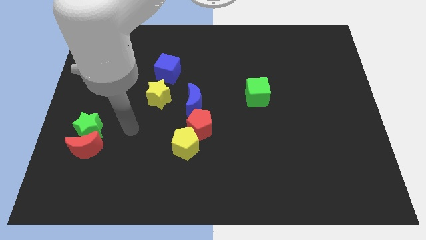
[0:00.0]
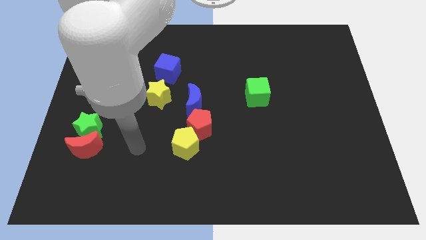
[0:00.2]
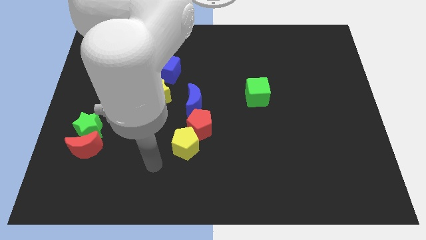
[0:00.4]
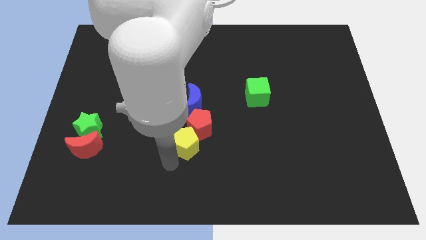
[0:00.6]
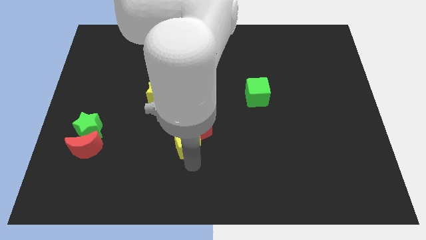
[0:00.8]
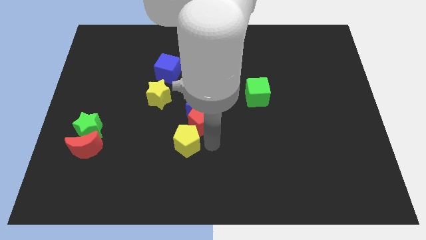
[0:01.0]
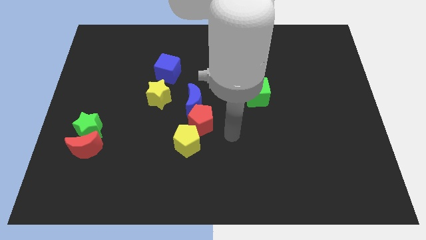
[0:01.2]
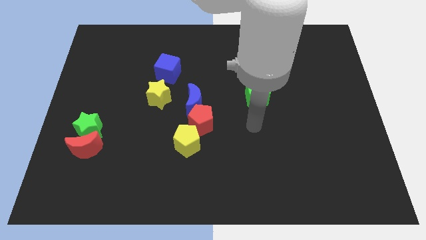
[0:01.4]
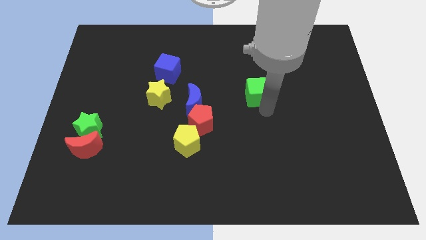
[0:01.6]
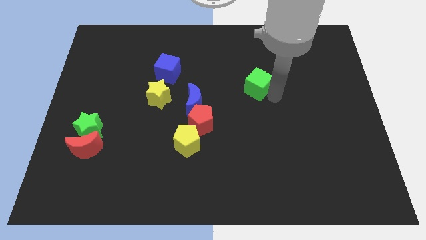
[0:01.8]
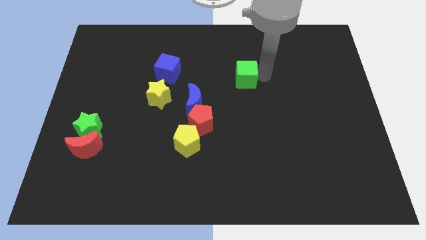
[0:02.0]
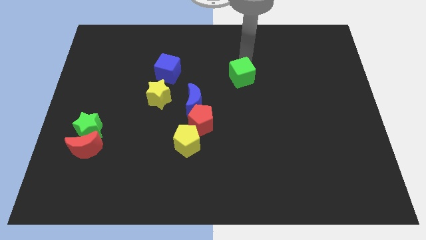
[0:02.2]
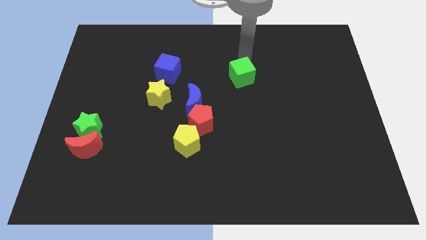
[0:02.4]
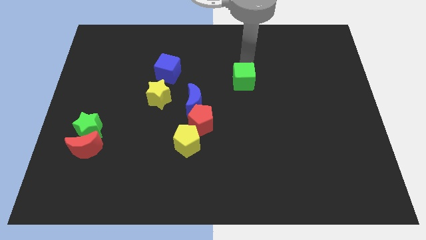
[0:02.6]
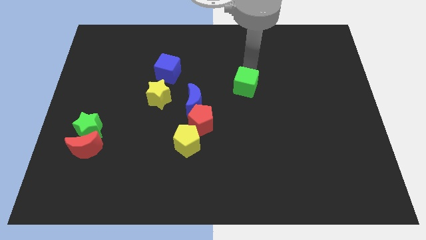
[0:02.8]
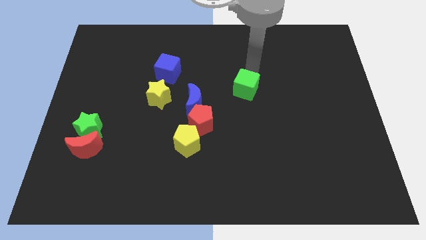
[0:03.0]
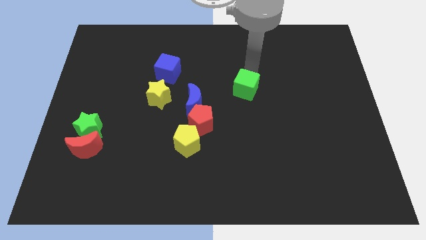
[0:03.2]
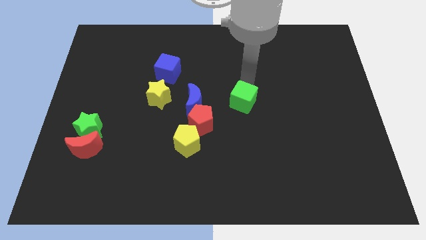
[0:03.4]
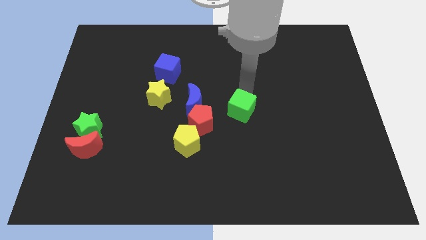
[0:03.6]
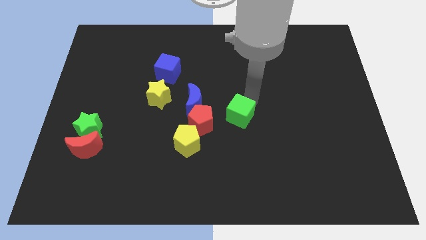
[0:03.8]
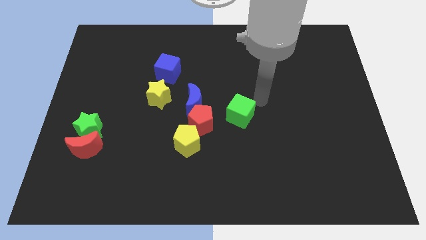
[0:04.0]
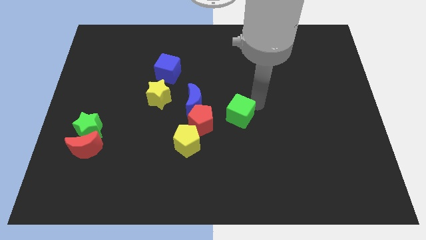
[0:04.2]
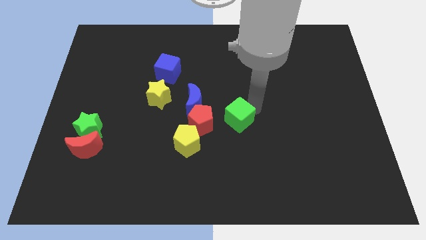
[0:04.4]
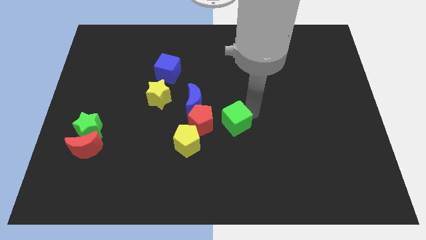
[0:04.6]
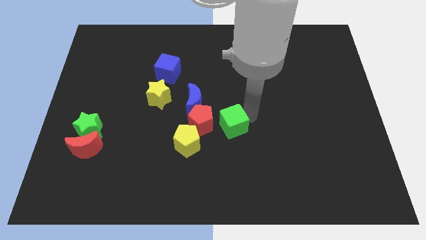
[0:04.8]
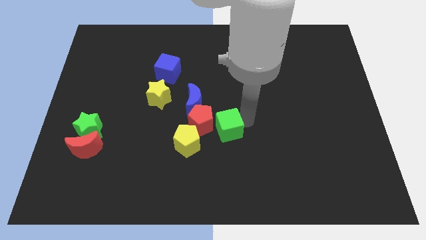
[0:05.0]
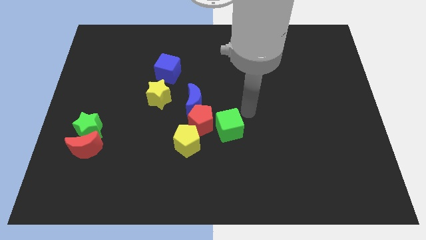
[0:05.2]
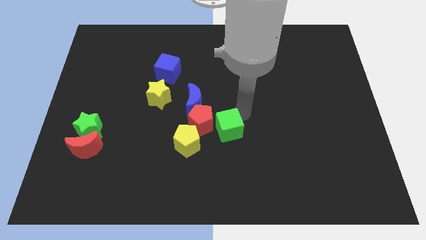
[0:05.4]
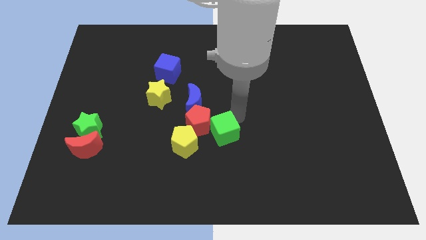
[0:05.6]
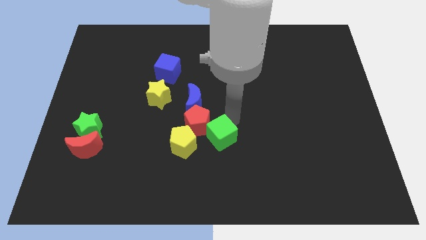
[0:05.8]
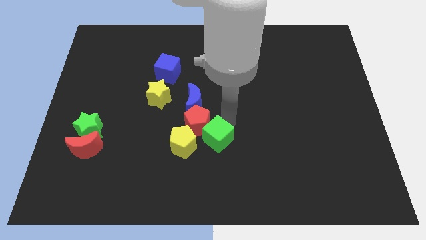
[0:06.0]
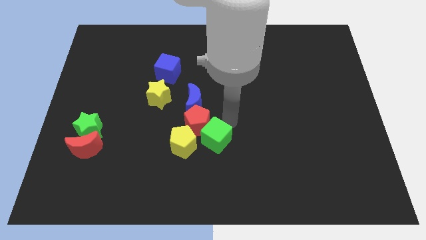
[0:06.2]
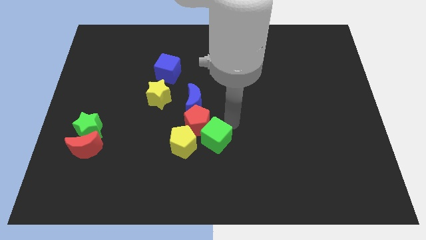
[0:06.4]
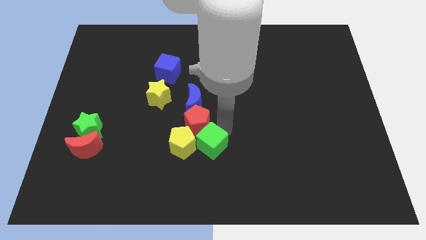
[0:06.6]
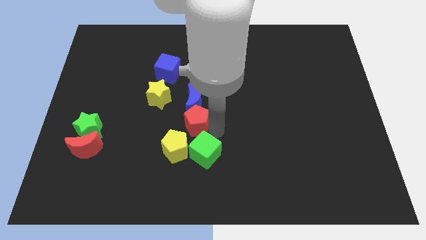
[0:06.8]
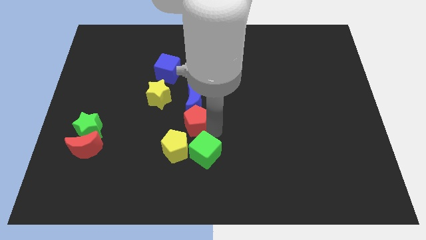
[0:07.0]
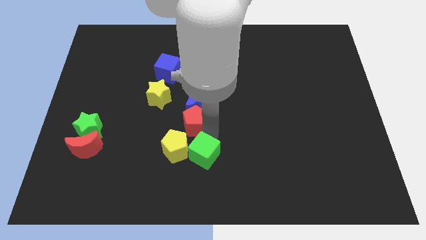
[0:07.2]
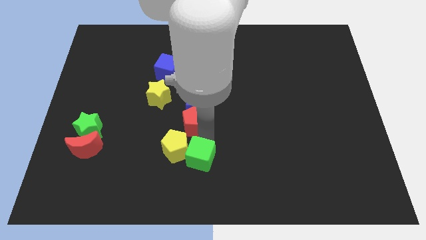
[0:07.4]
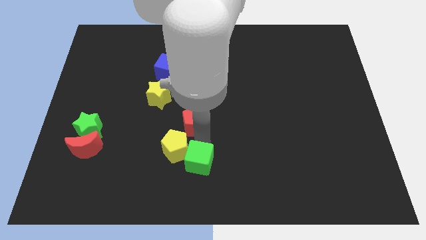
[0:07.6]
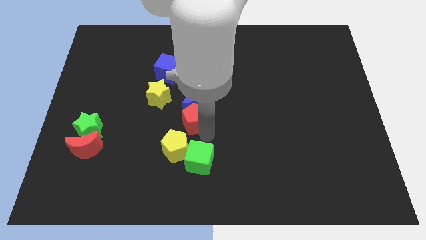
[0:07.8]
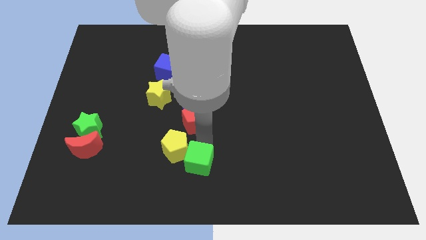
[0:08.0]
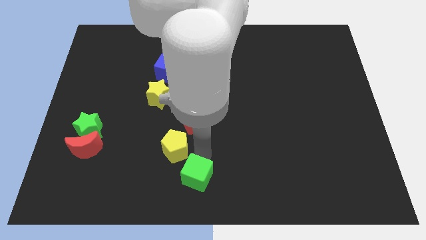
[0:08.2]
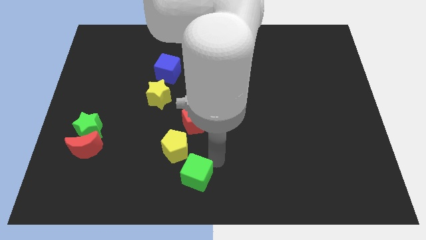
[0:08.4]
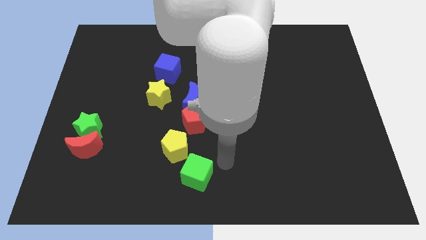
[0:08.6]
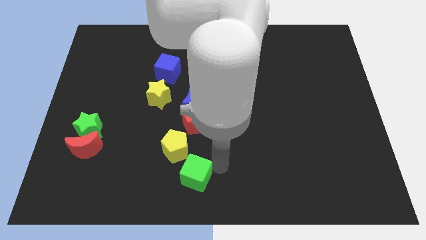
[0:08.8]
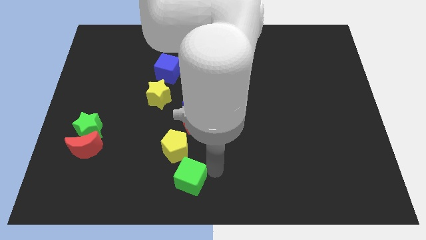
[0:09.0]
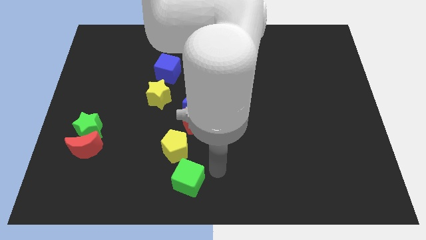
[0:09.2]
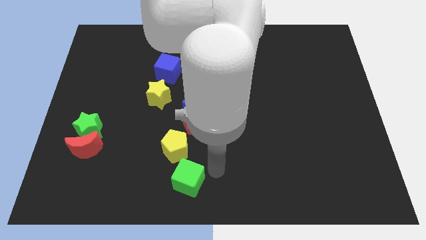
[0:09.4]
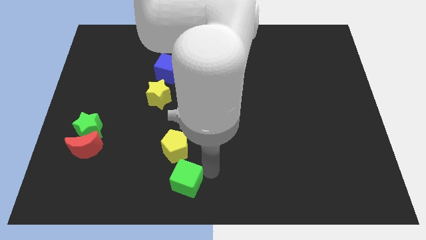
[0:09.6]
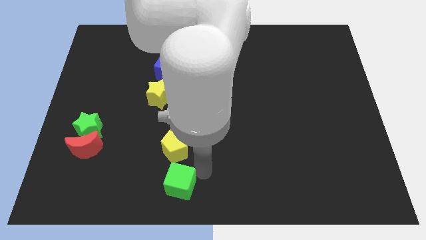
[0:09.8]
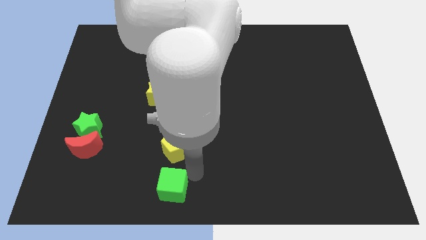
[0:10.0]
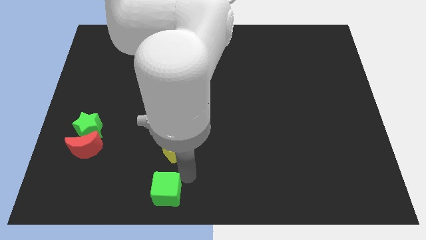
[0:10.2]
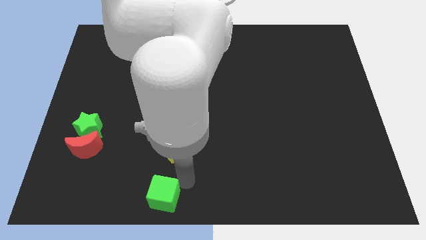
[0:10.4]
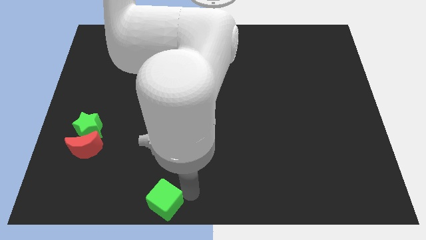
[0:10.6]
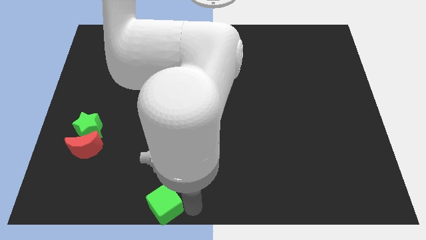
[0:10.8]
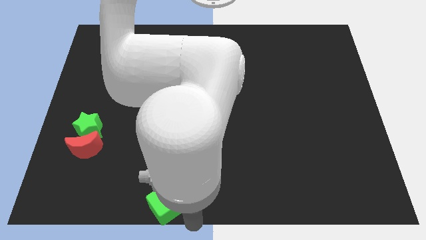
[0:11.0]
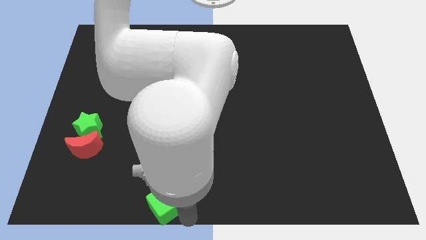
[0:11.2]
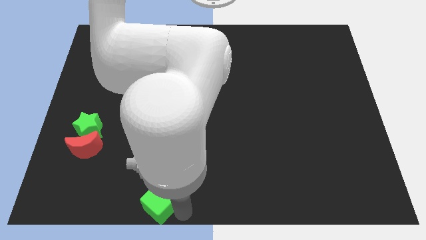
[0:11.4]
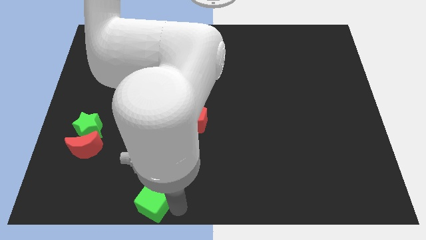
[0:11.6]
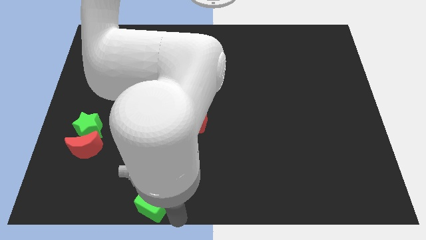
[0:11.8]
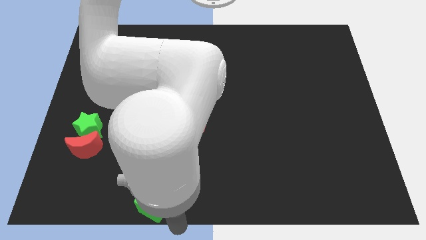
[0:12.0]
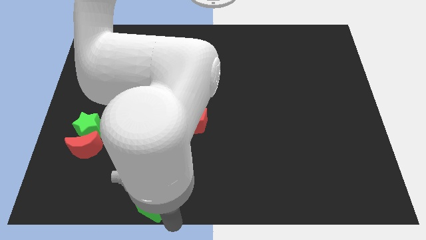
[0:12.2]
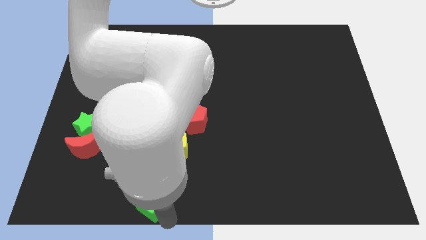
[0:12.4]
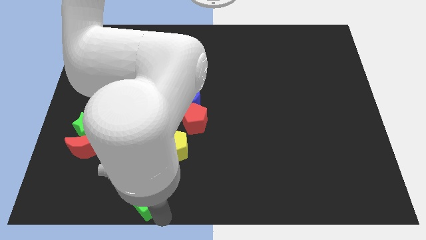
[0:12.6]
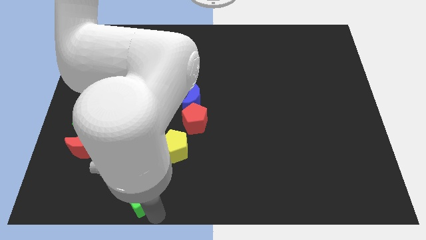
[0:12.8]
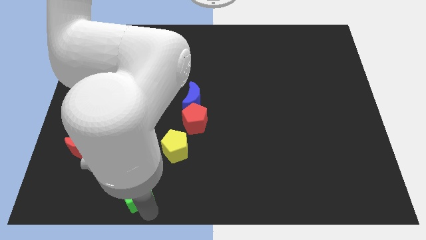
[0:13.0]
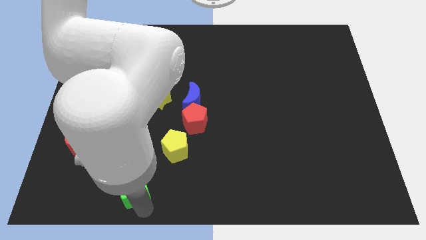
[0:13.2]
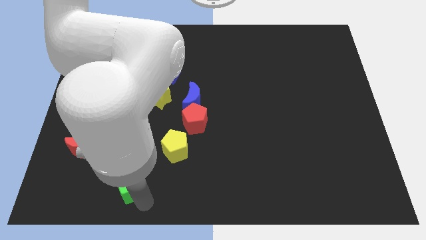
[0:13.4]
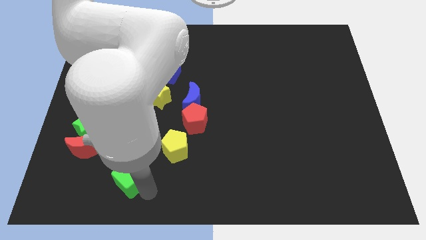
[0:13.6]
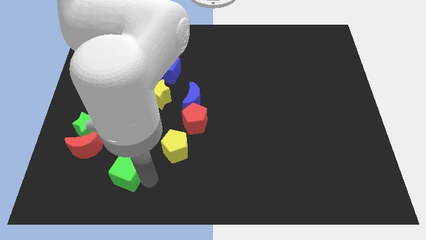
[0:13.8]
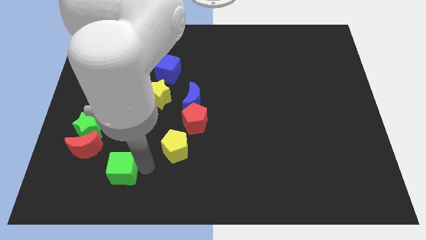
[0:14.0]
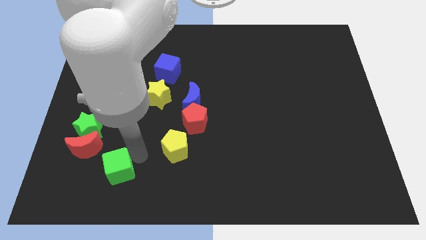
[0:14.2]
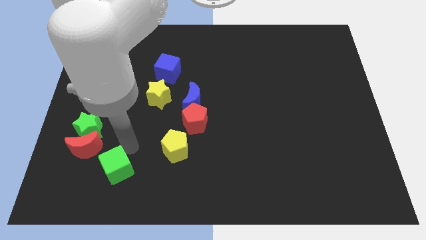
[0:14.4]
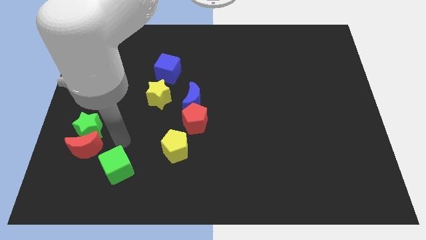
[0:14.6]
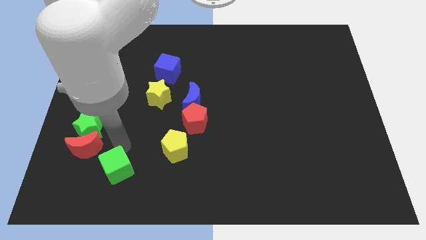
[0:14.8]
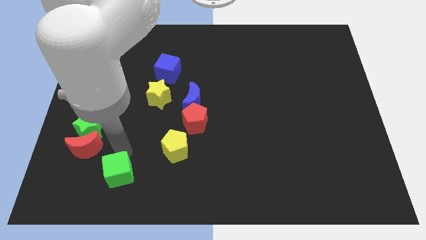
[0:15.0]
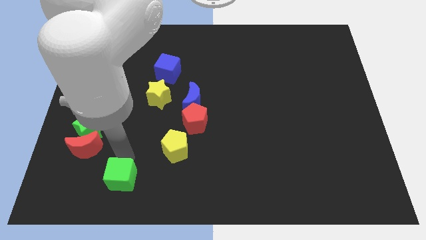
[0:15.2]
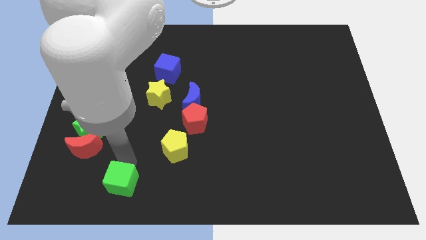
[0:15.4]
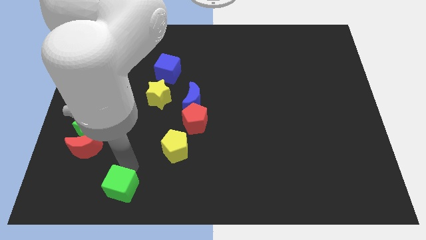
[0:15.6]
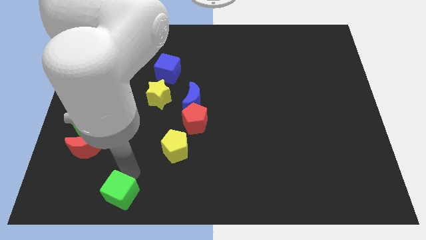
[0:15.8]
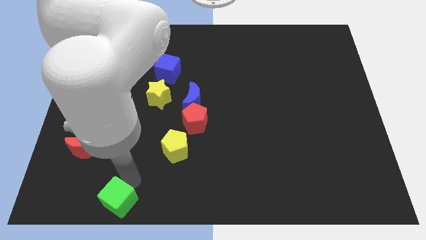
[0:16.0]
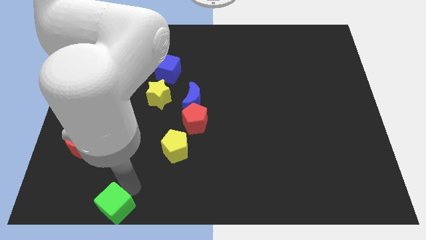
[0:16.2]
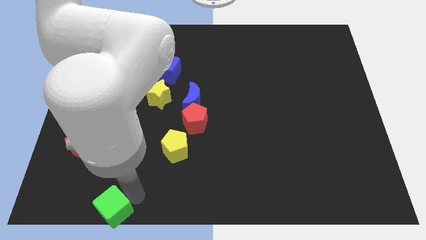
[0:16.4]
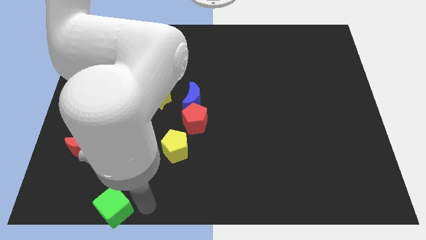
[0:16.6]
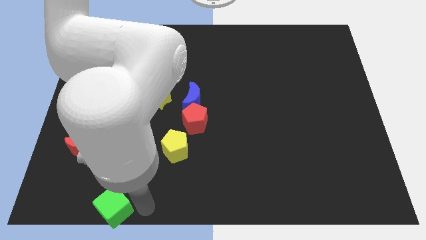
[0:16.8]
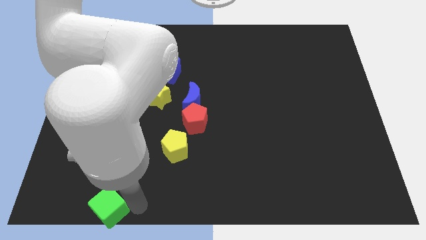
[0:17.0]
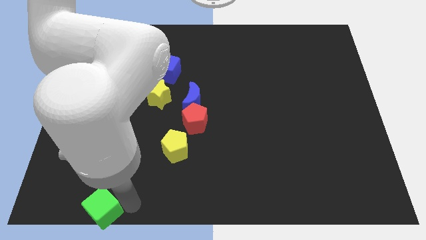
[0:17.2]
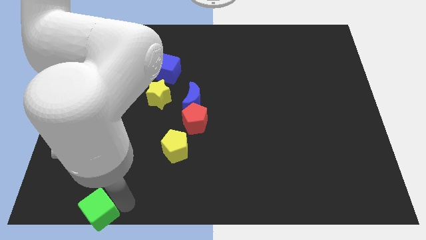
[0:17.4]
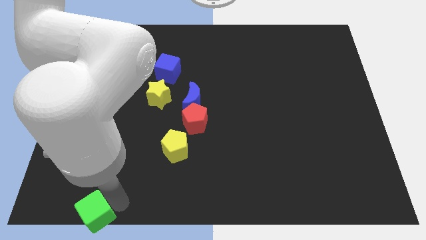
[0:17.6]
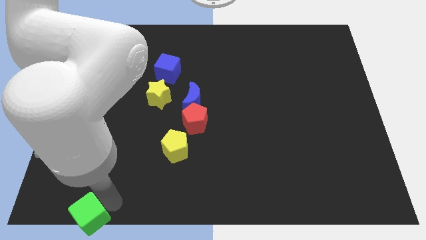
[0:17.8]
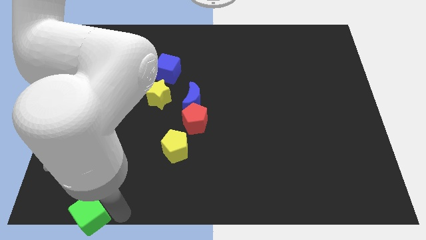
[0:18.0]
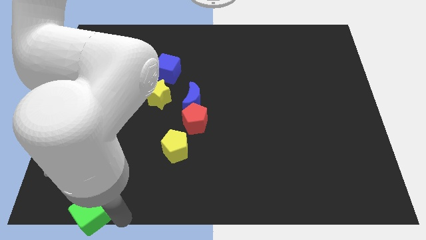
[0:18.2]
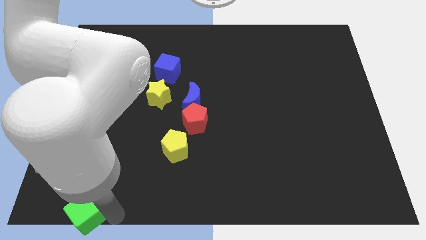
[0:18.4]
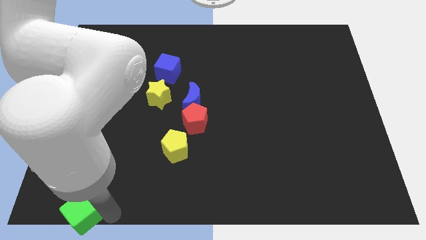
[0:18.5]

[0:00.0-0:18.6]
slide the green cube to the lower left corner
